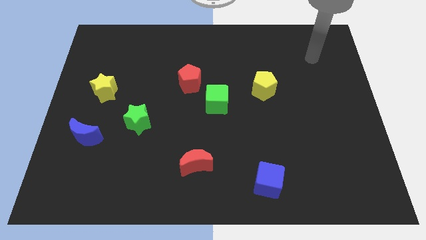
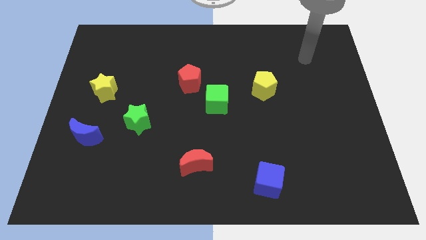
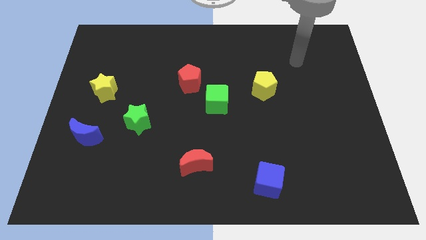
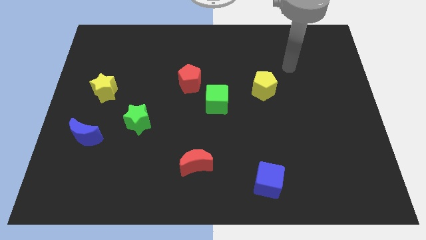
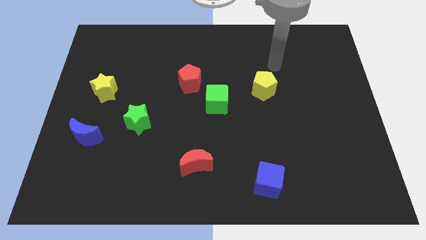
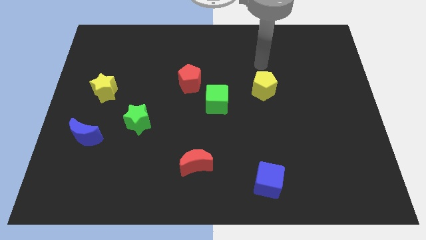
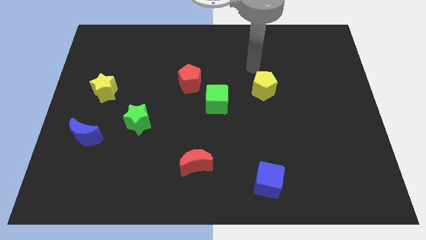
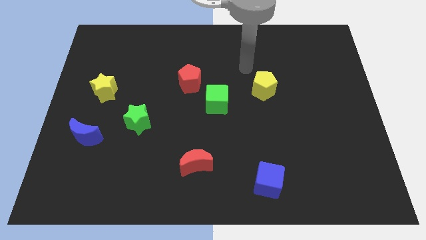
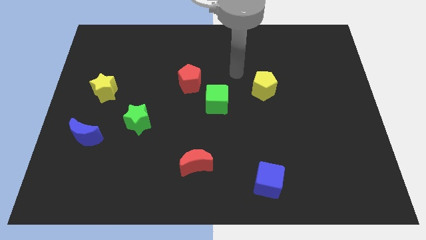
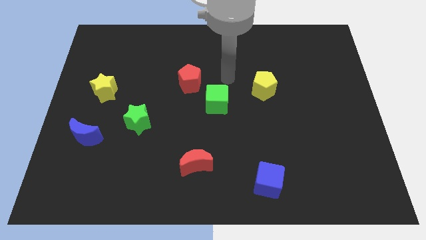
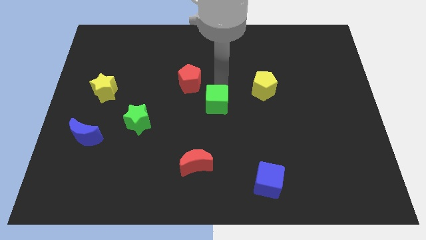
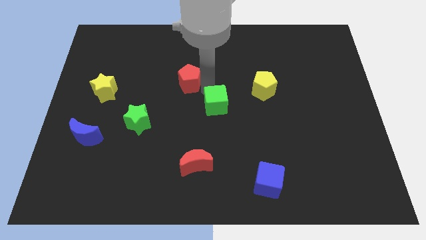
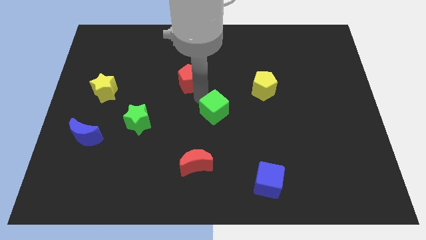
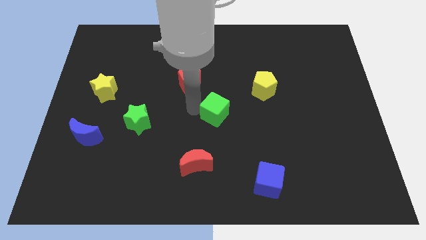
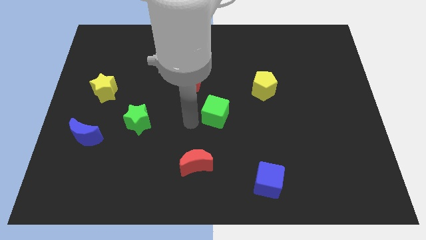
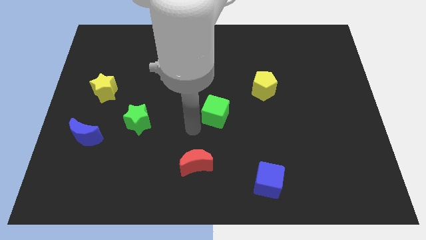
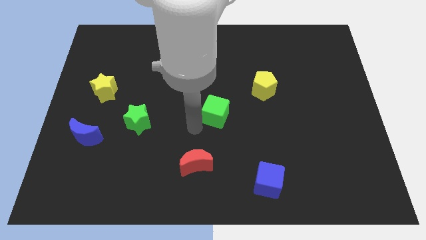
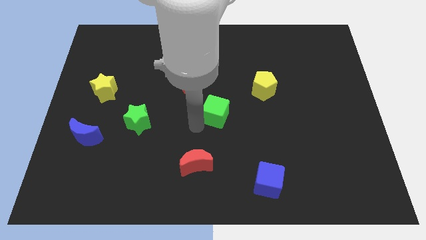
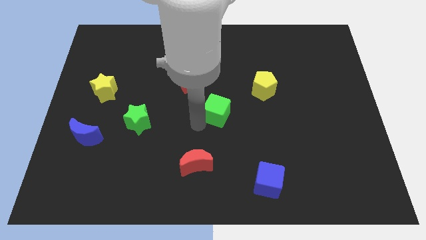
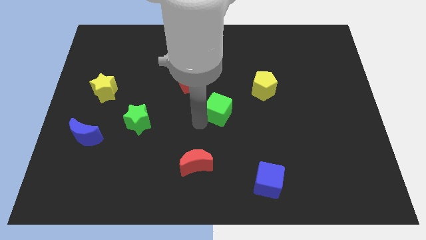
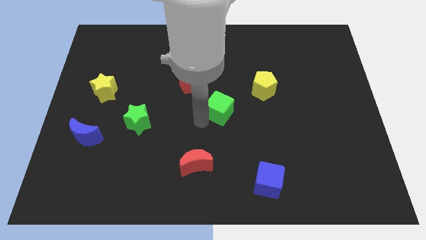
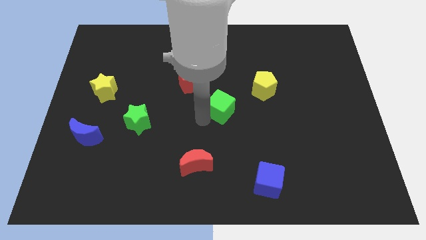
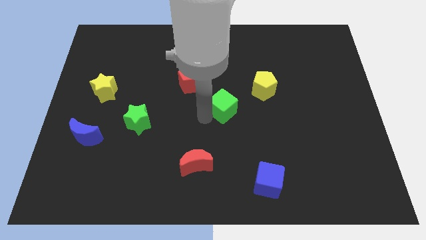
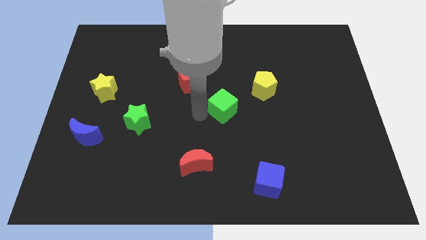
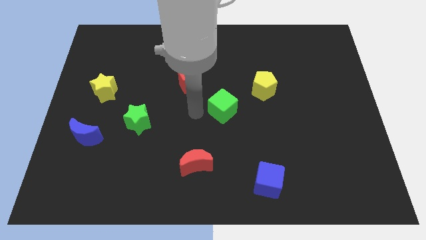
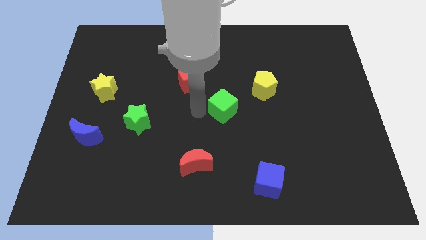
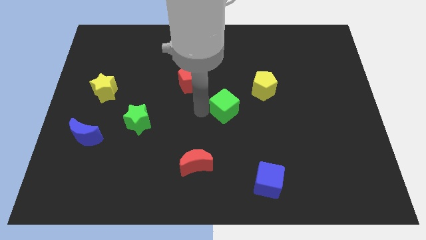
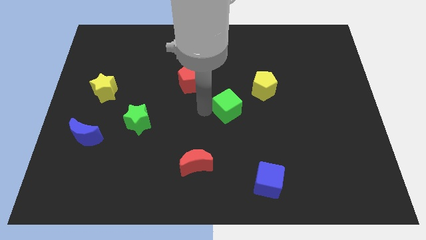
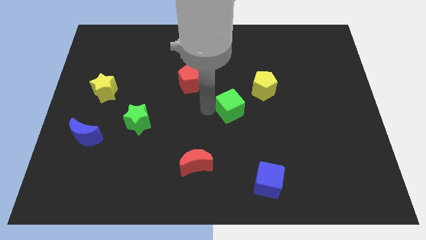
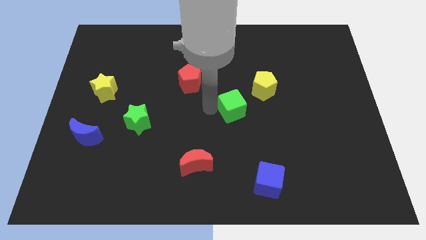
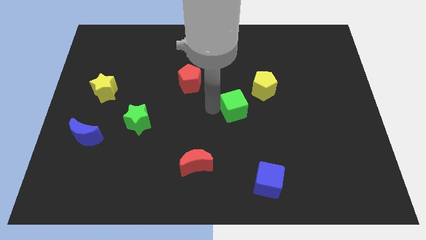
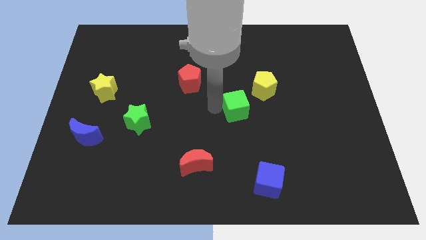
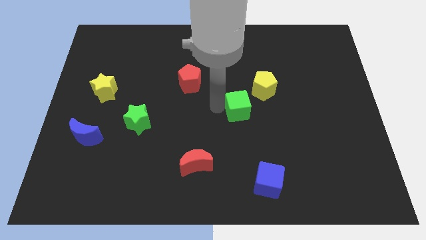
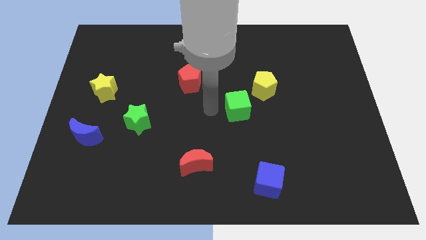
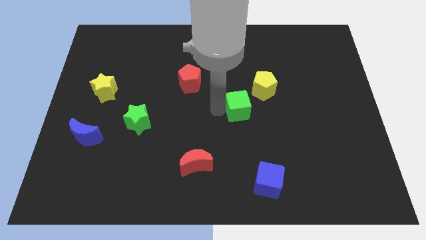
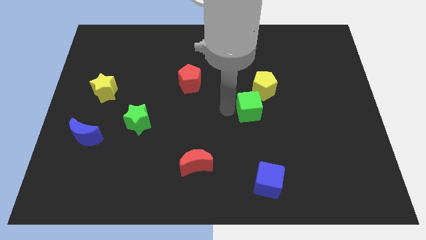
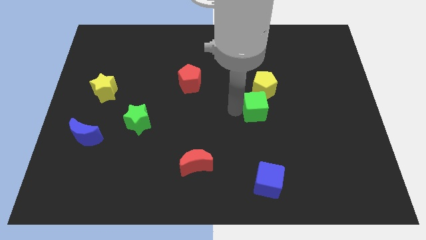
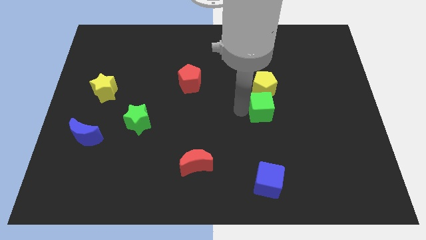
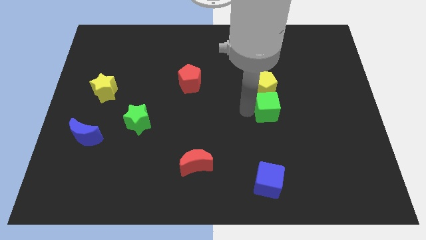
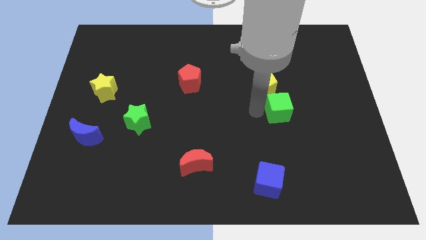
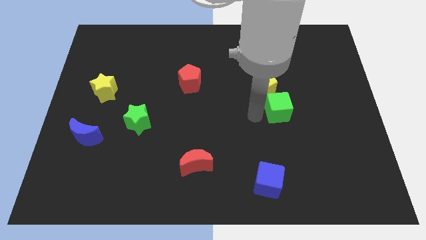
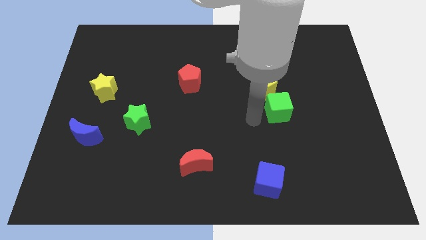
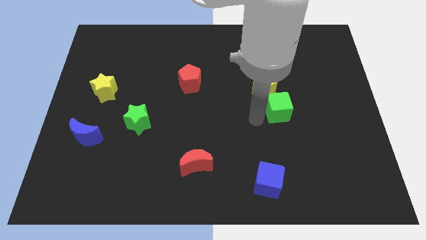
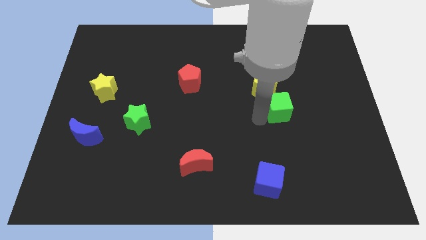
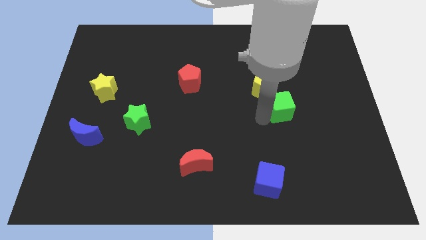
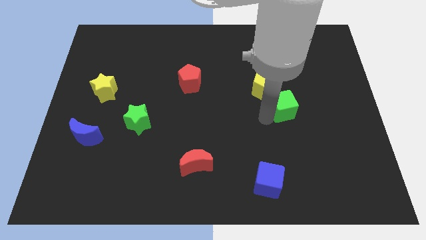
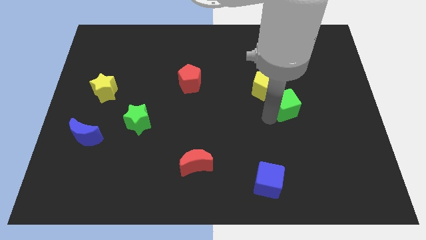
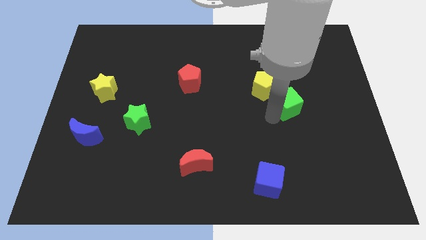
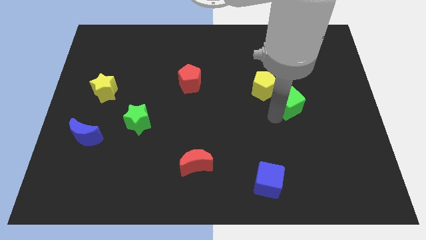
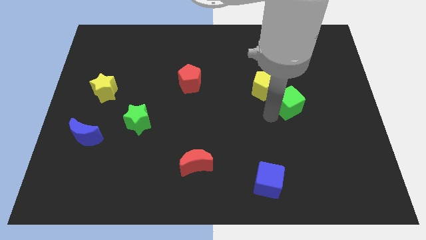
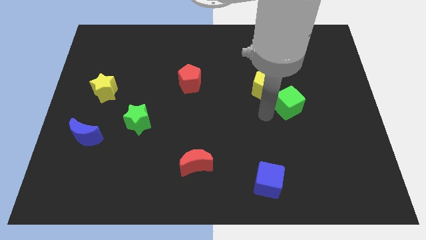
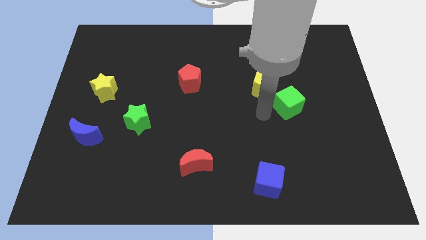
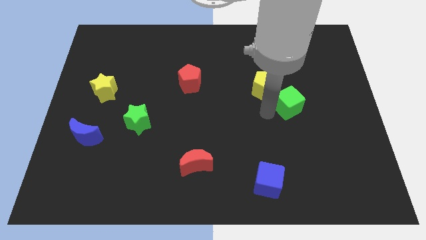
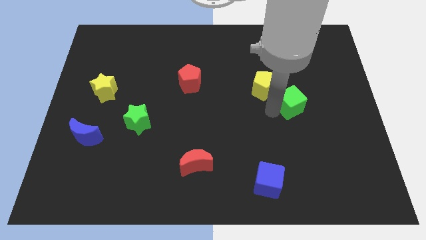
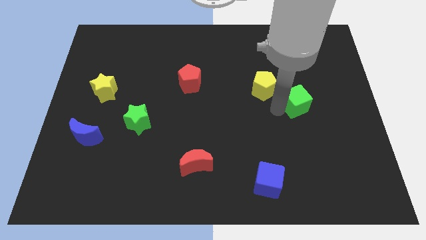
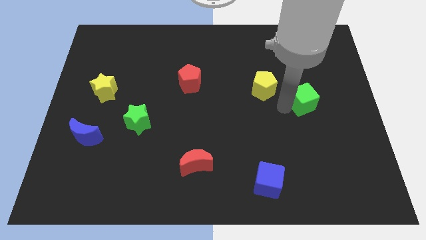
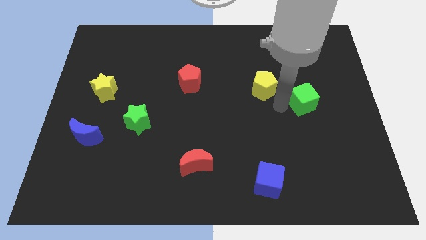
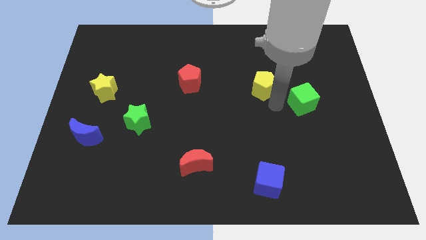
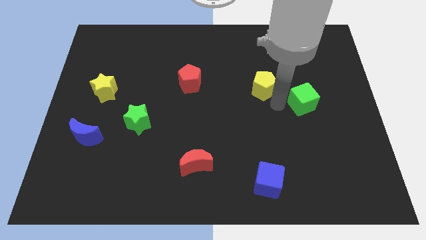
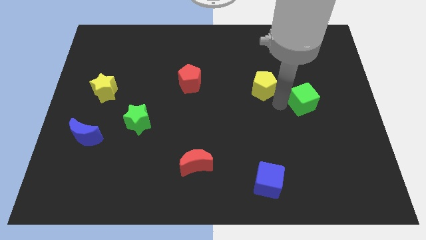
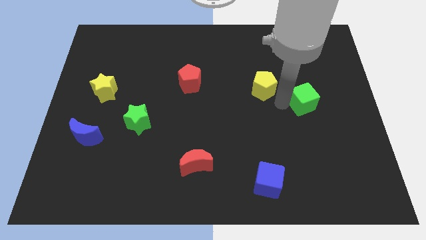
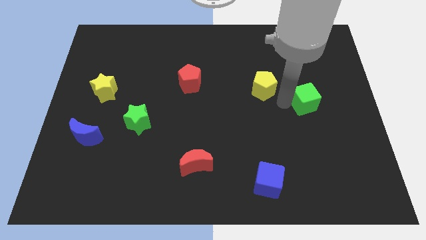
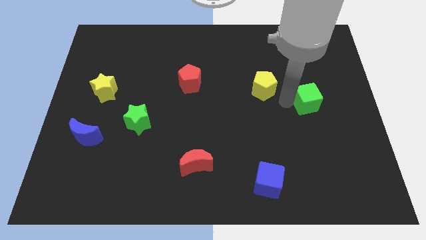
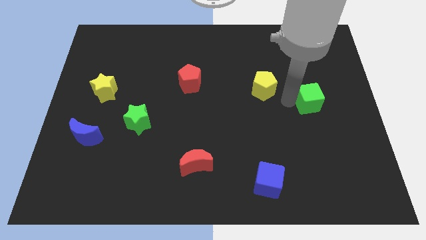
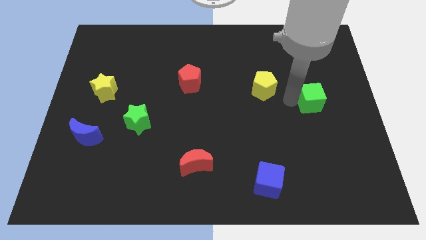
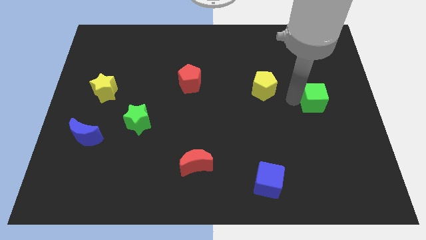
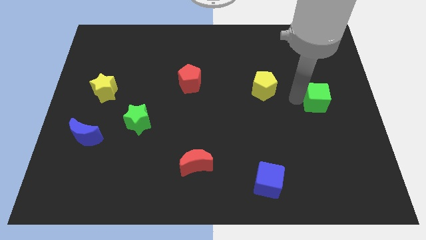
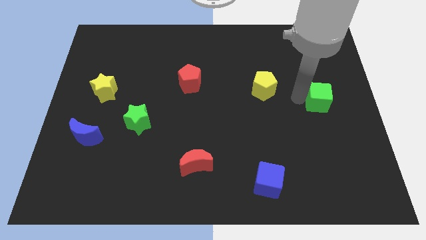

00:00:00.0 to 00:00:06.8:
push the green cube to the right side of the board

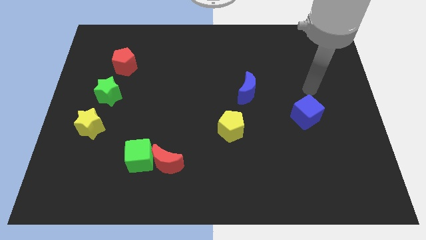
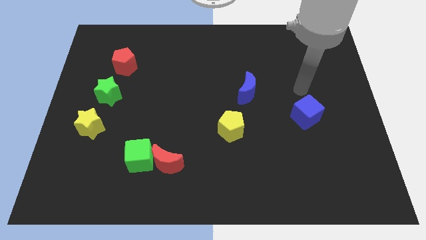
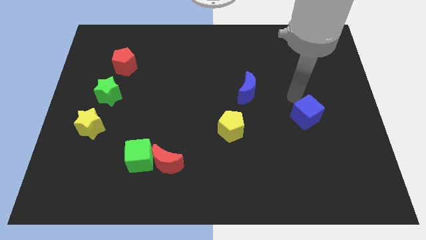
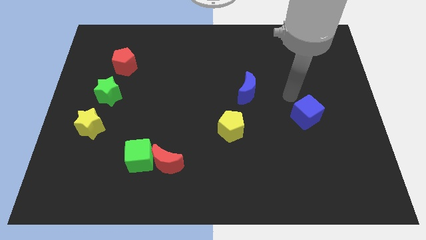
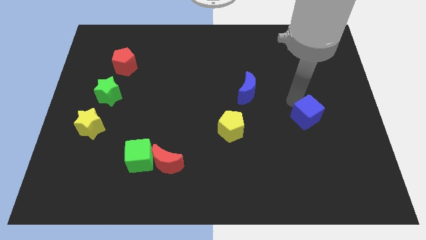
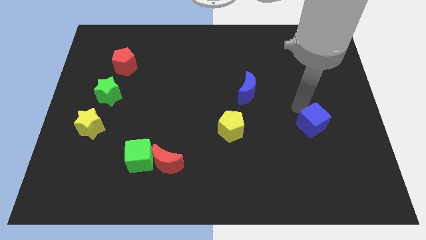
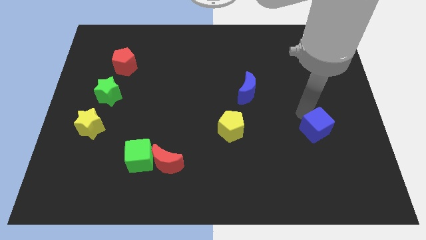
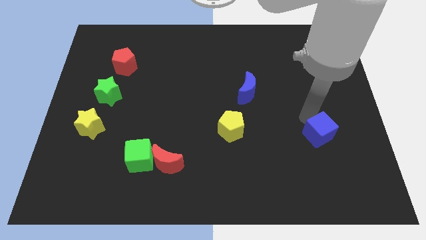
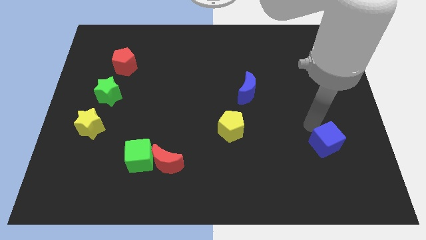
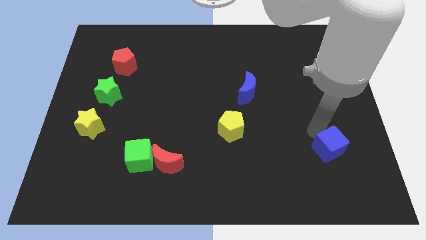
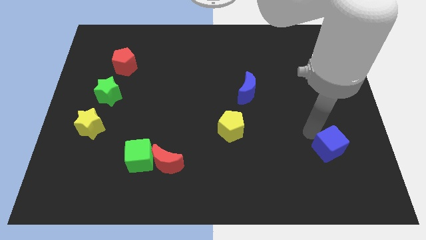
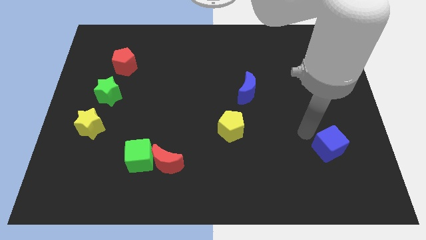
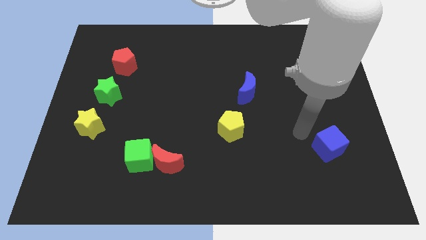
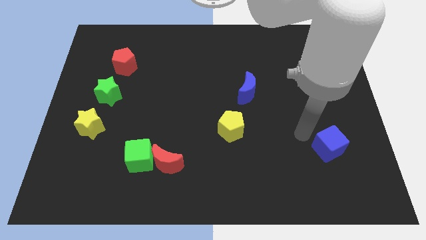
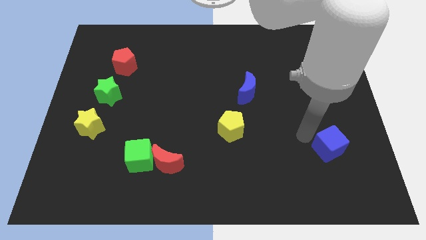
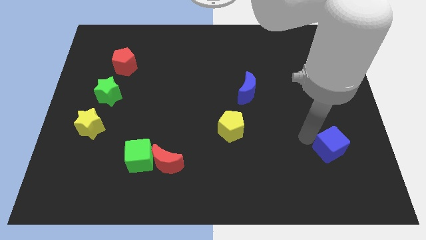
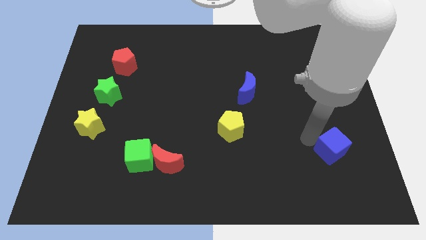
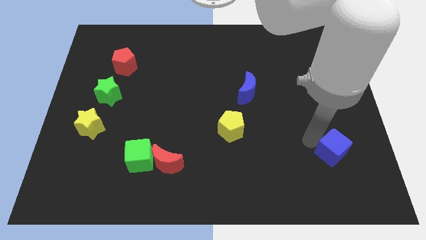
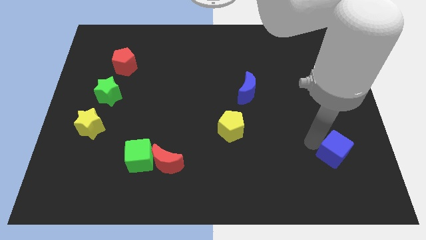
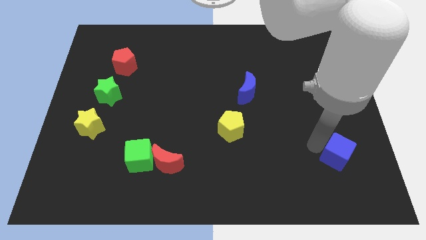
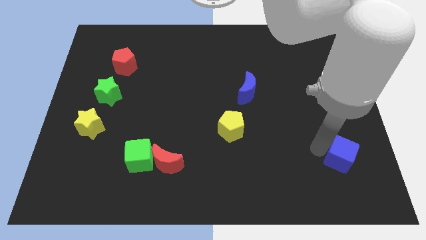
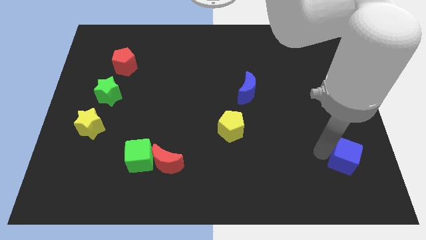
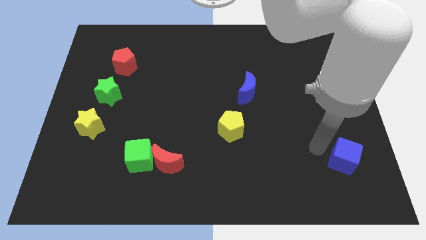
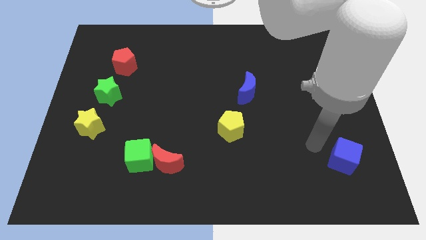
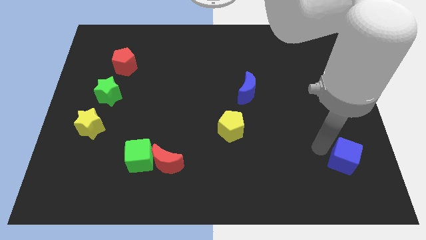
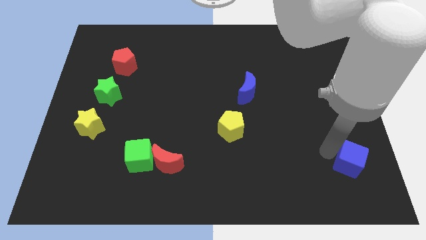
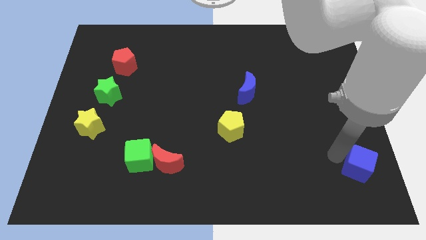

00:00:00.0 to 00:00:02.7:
put the blue cube to the lower right corner
